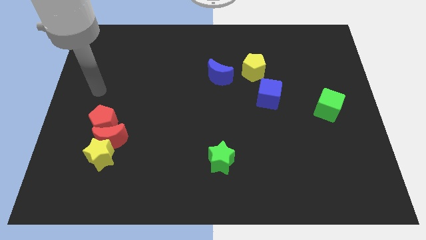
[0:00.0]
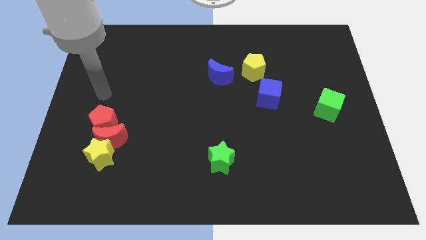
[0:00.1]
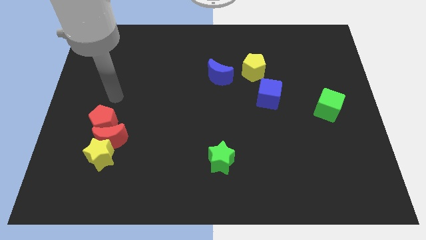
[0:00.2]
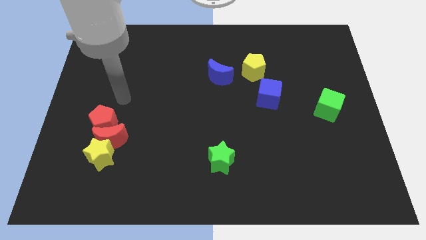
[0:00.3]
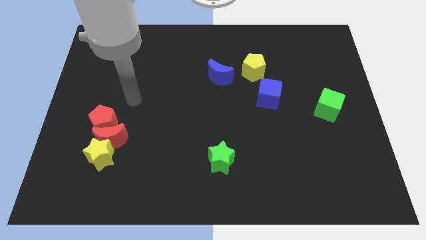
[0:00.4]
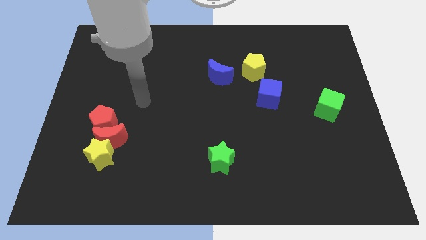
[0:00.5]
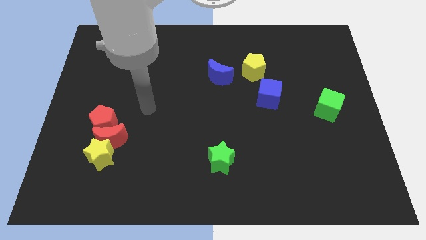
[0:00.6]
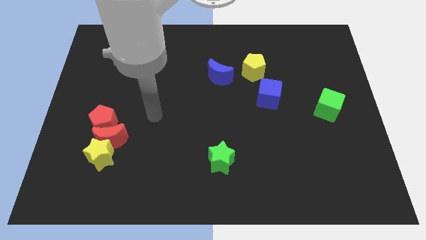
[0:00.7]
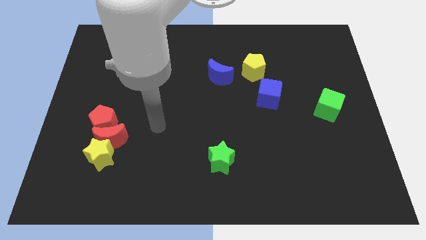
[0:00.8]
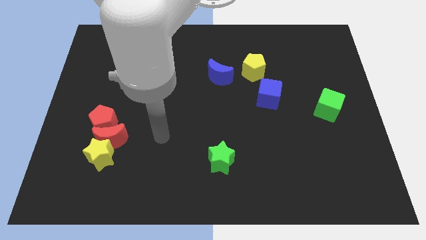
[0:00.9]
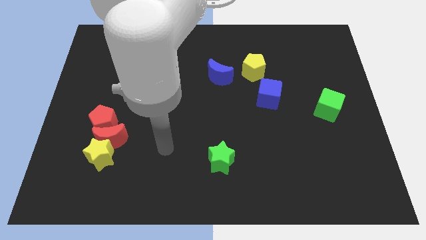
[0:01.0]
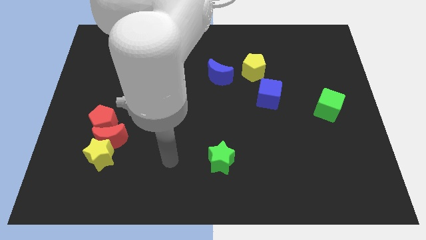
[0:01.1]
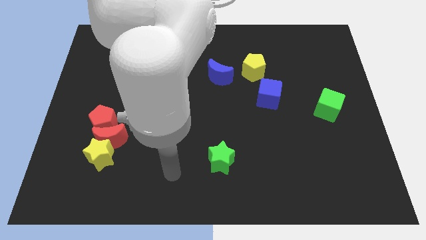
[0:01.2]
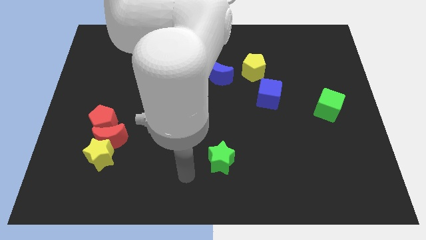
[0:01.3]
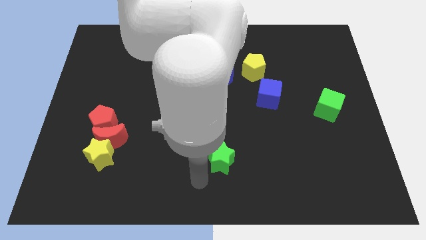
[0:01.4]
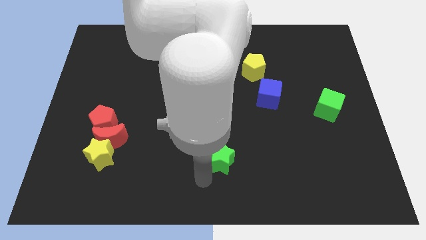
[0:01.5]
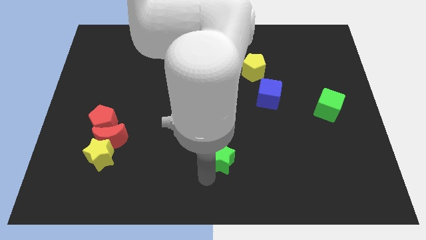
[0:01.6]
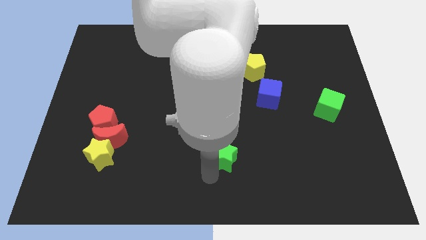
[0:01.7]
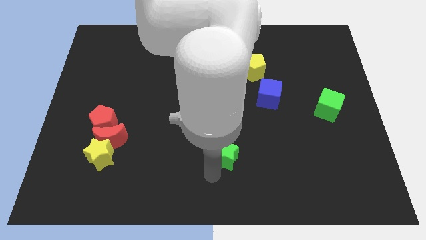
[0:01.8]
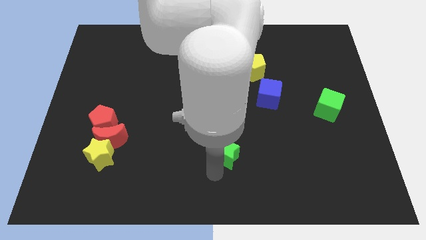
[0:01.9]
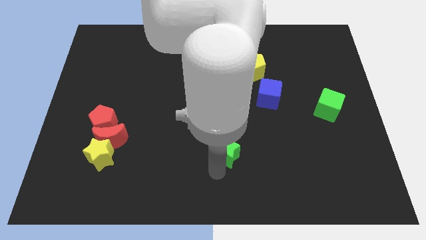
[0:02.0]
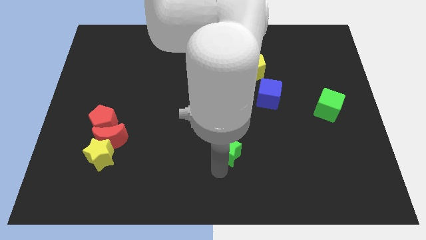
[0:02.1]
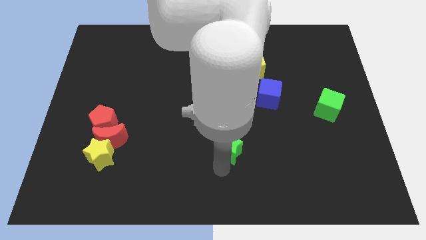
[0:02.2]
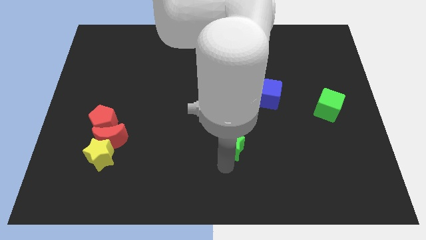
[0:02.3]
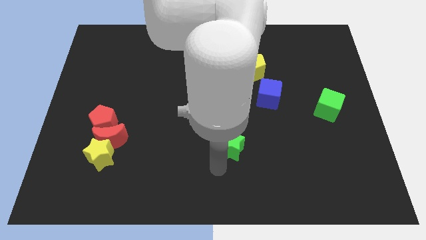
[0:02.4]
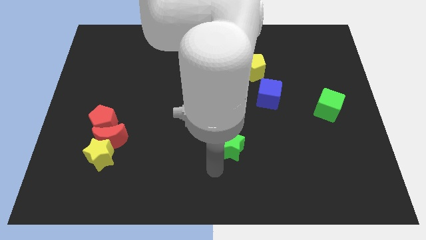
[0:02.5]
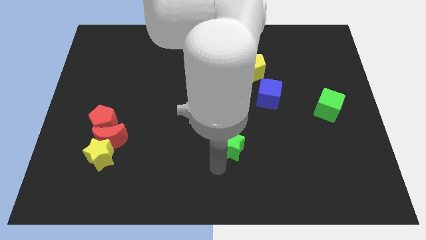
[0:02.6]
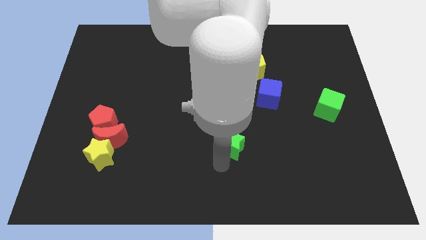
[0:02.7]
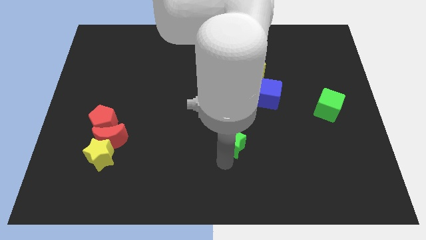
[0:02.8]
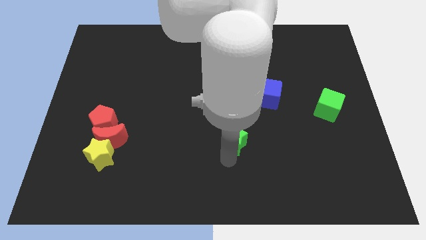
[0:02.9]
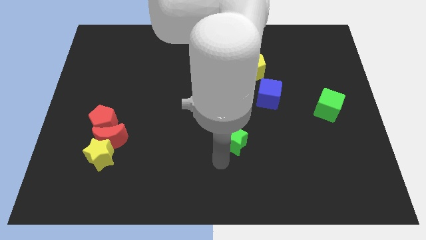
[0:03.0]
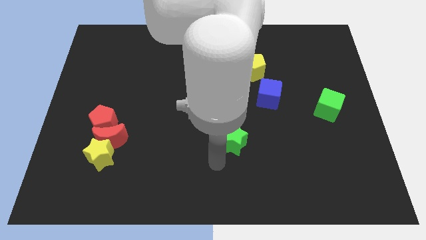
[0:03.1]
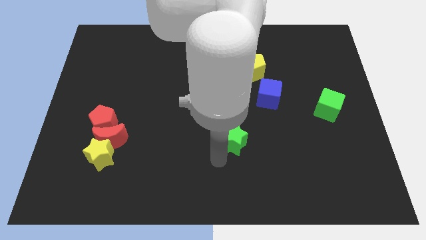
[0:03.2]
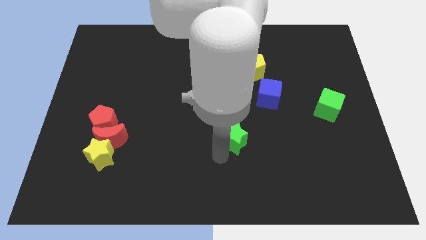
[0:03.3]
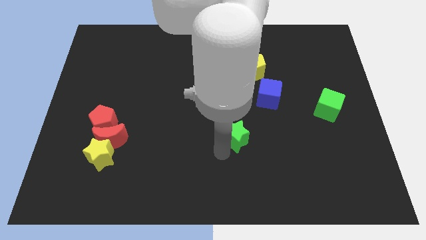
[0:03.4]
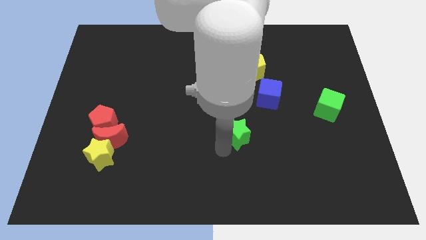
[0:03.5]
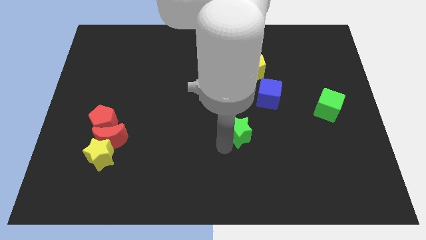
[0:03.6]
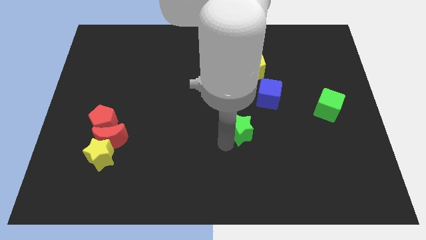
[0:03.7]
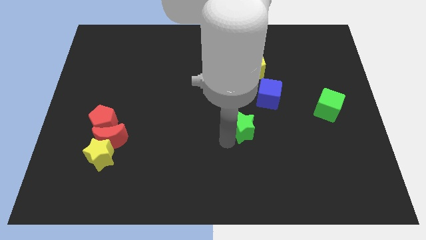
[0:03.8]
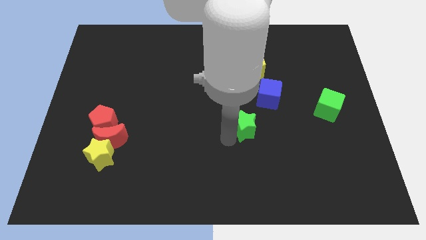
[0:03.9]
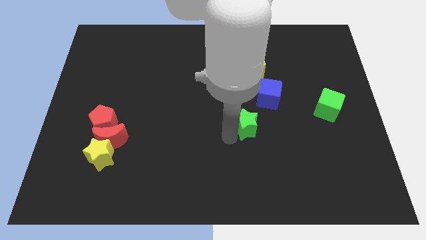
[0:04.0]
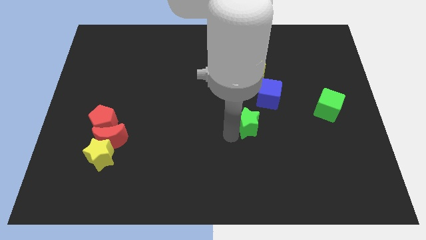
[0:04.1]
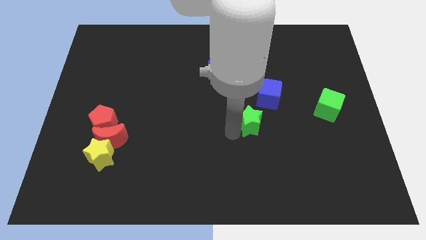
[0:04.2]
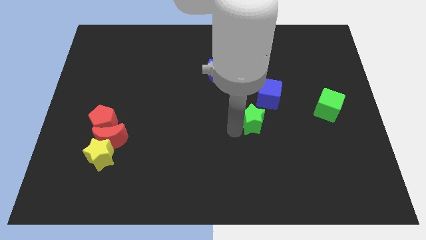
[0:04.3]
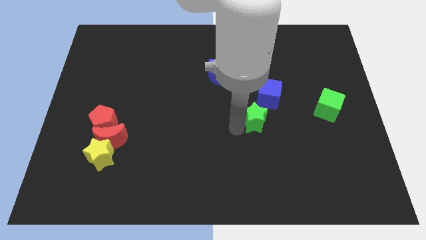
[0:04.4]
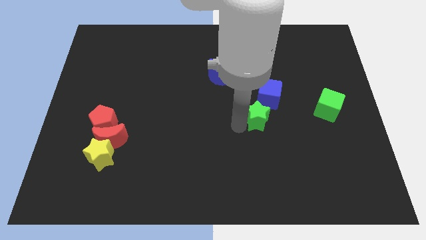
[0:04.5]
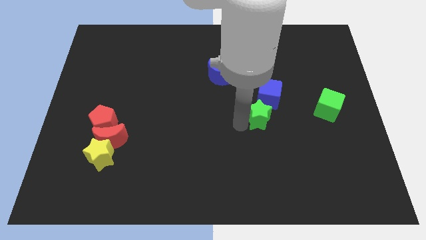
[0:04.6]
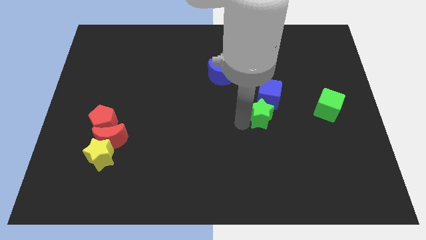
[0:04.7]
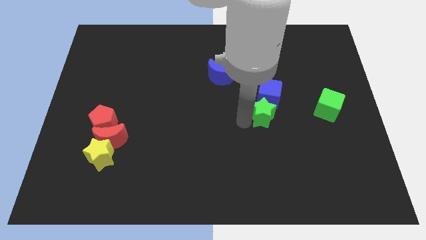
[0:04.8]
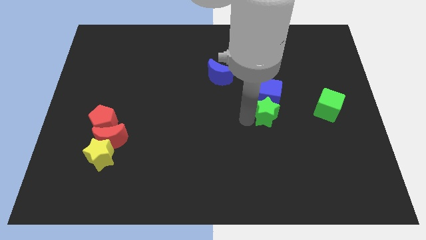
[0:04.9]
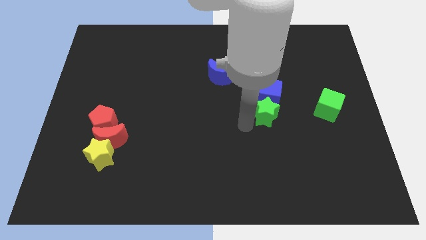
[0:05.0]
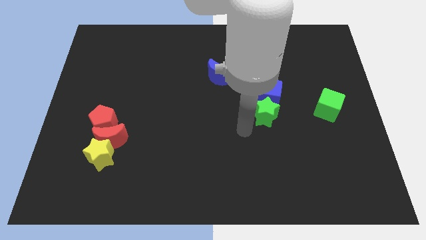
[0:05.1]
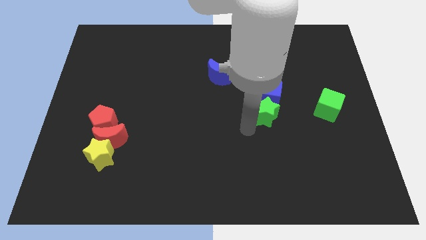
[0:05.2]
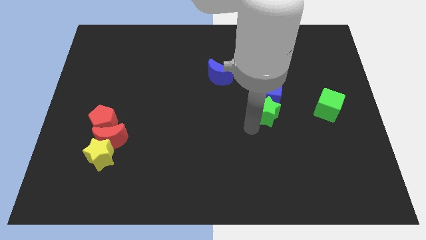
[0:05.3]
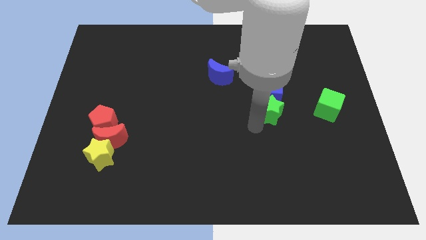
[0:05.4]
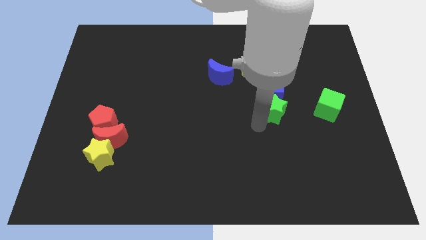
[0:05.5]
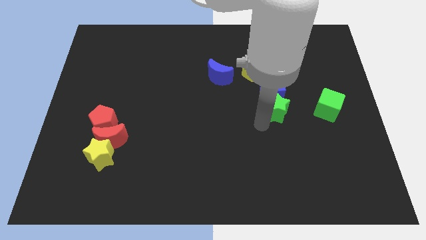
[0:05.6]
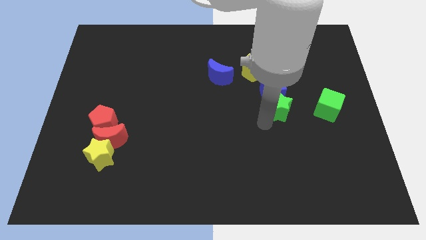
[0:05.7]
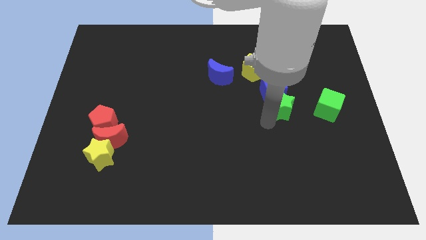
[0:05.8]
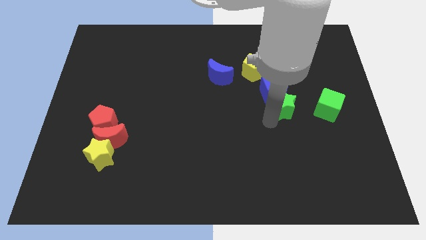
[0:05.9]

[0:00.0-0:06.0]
slide the green star up and to the right diagonally

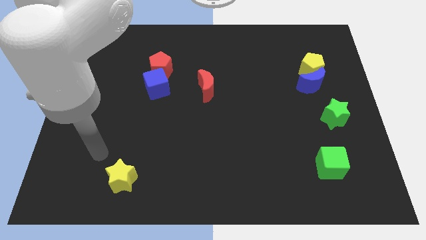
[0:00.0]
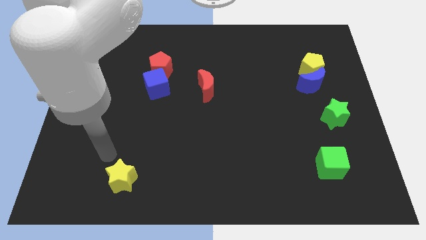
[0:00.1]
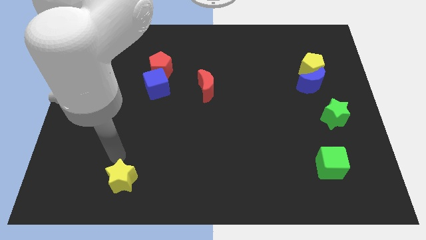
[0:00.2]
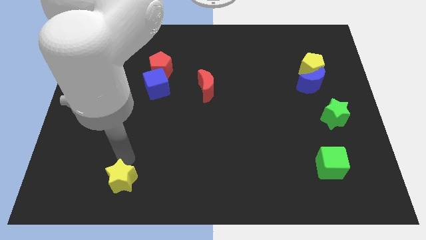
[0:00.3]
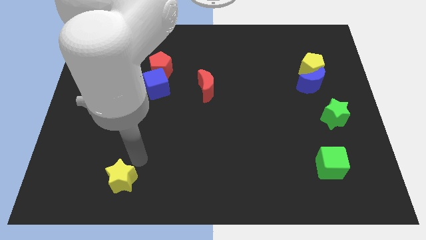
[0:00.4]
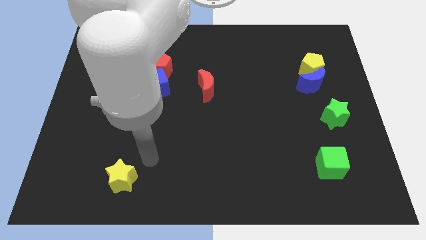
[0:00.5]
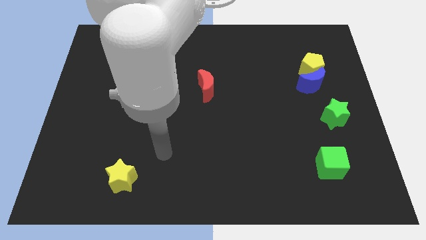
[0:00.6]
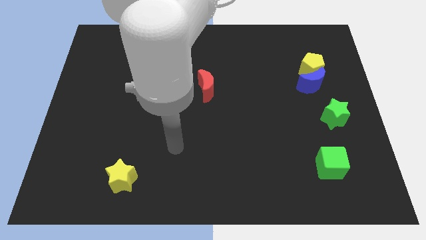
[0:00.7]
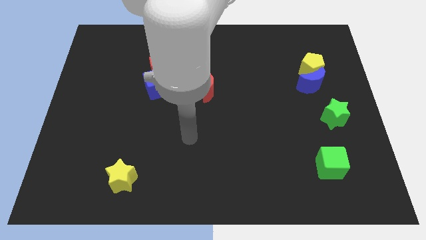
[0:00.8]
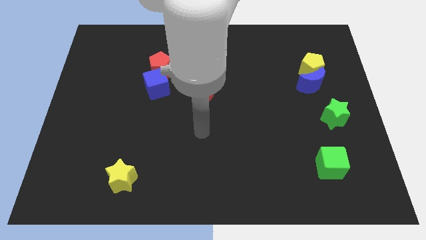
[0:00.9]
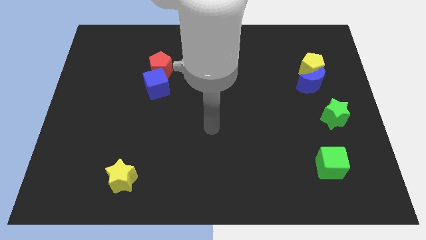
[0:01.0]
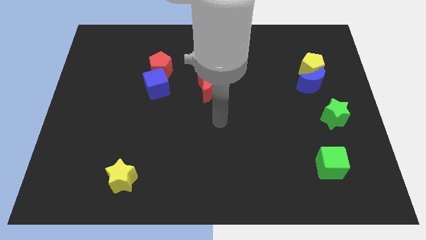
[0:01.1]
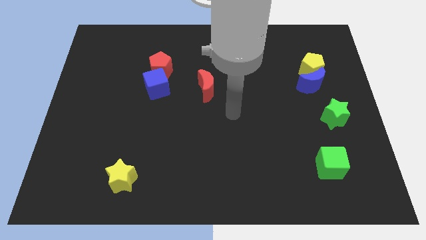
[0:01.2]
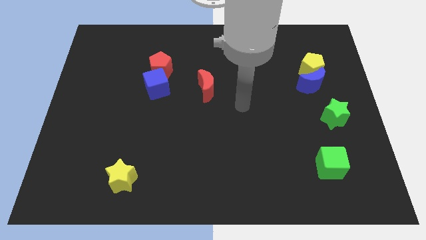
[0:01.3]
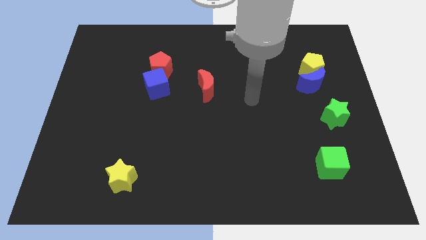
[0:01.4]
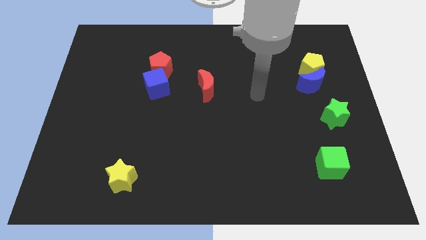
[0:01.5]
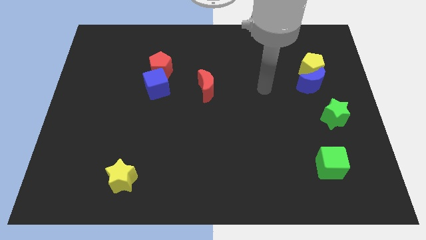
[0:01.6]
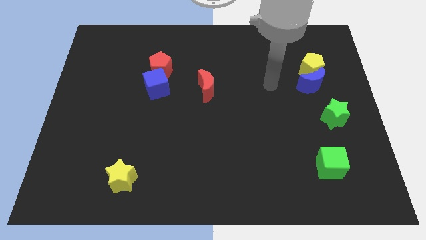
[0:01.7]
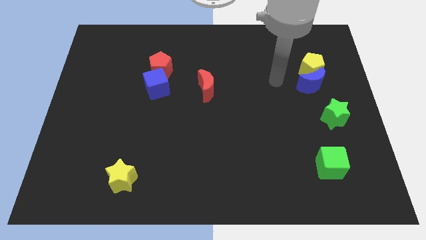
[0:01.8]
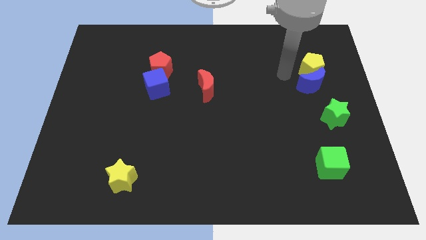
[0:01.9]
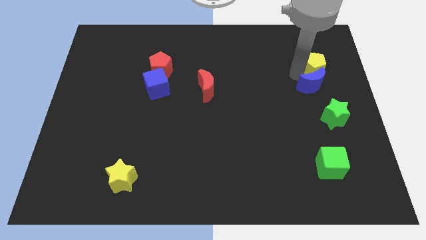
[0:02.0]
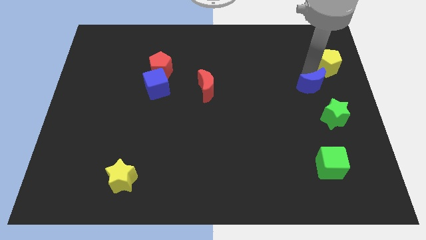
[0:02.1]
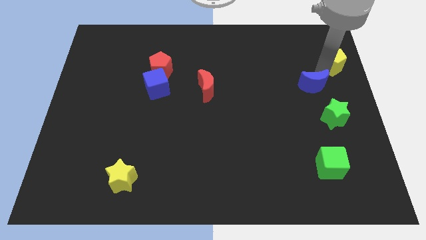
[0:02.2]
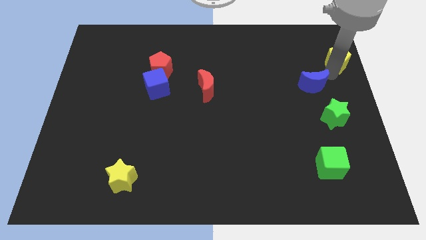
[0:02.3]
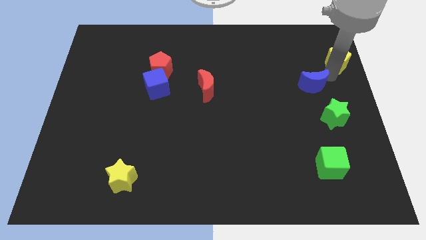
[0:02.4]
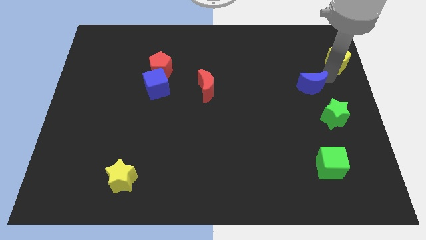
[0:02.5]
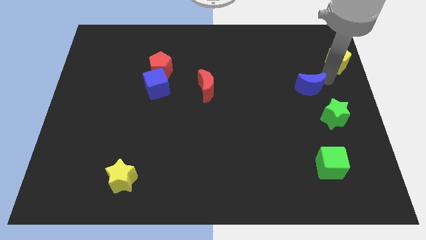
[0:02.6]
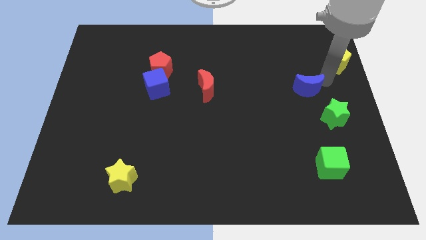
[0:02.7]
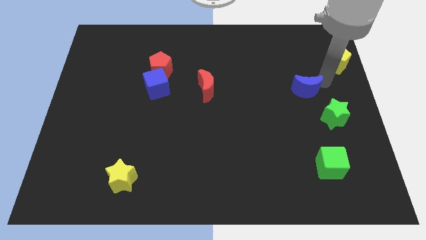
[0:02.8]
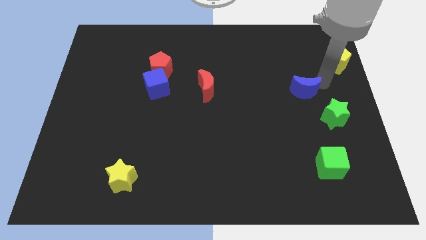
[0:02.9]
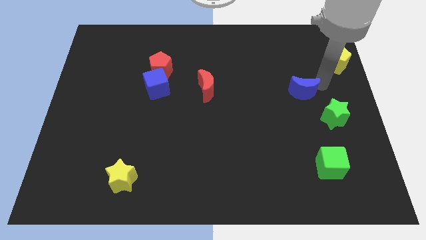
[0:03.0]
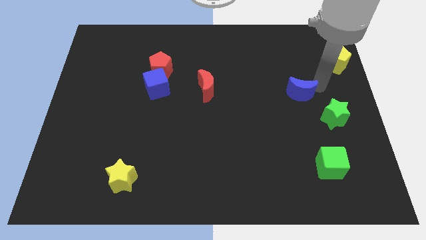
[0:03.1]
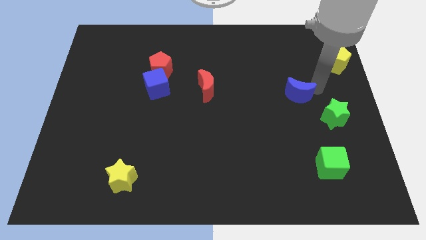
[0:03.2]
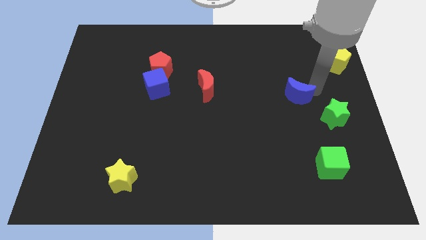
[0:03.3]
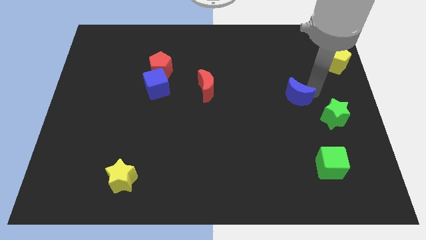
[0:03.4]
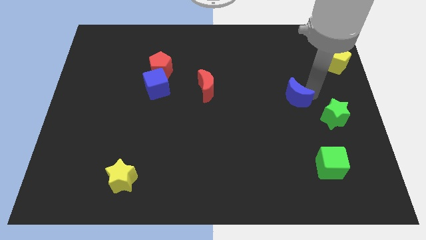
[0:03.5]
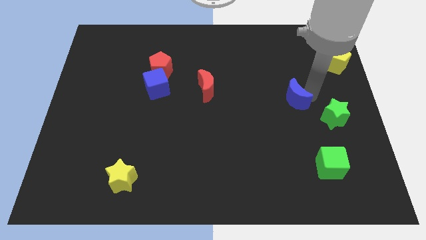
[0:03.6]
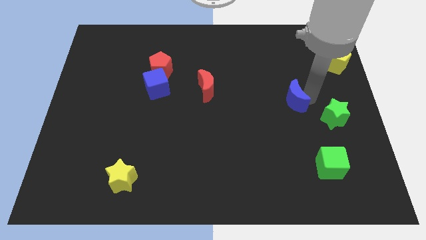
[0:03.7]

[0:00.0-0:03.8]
move the blue moon diagonally down and to the left a bit
